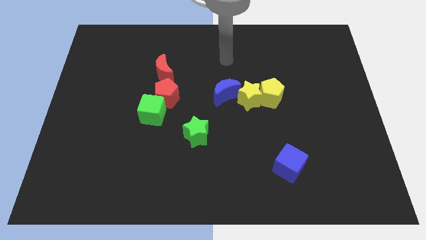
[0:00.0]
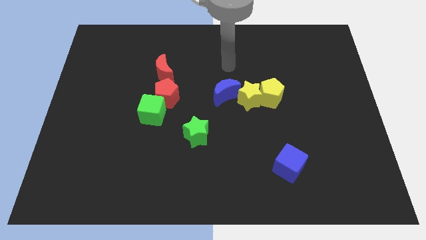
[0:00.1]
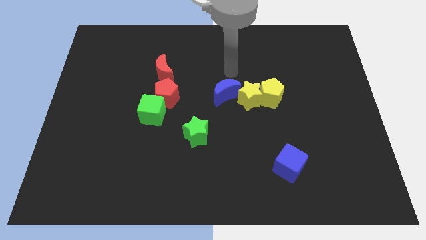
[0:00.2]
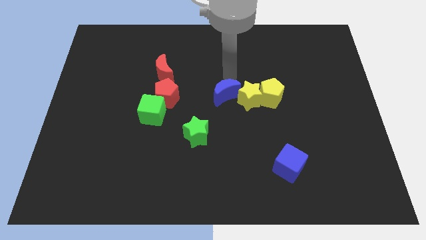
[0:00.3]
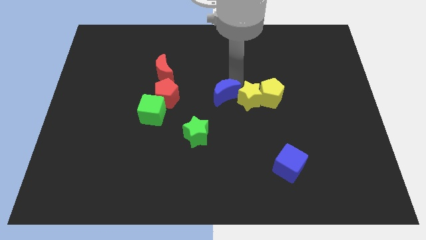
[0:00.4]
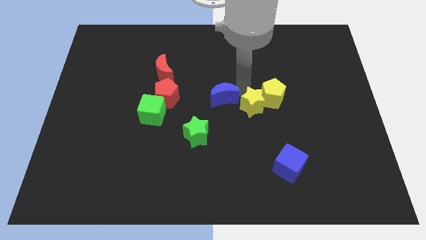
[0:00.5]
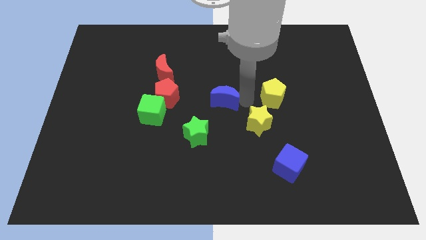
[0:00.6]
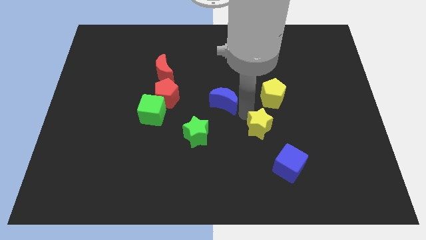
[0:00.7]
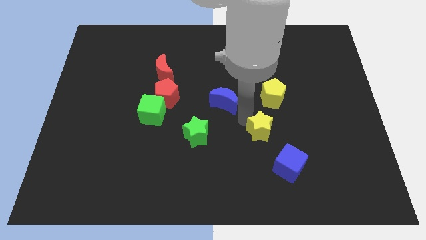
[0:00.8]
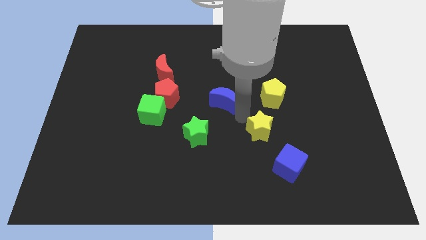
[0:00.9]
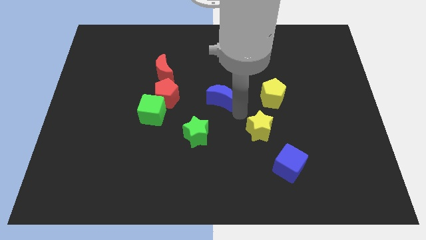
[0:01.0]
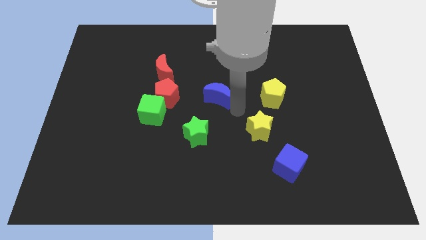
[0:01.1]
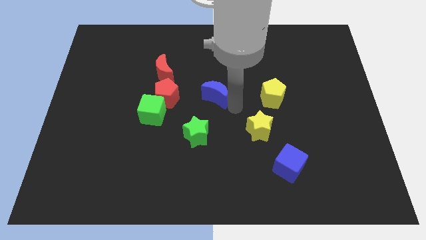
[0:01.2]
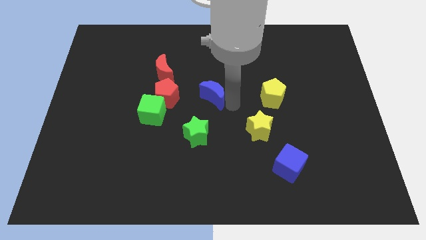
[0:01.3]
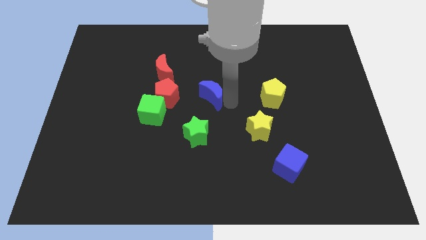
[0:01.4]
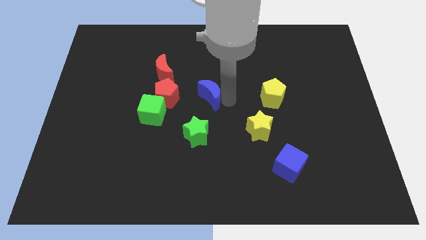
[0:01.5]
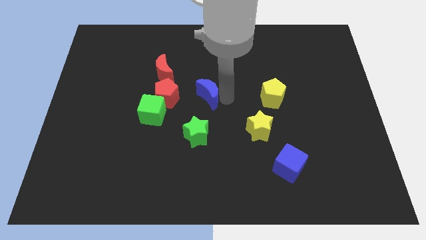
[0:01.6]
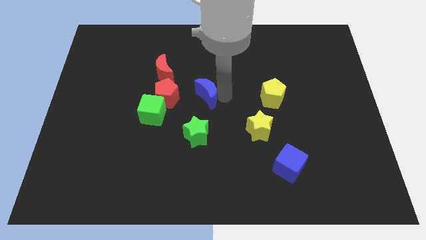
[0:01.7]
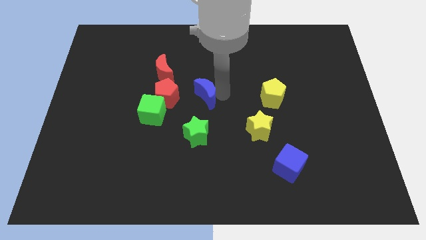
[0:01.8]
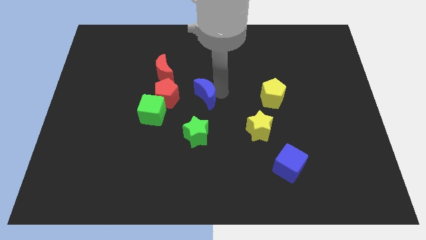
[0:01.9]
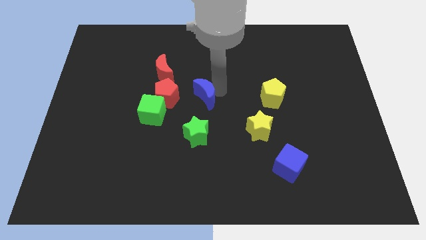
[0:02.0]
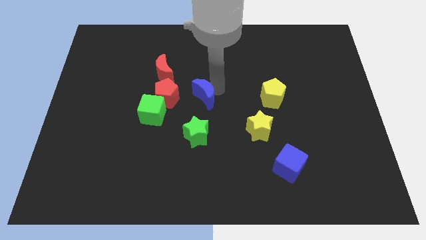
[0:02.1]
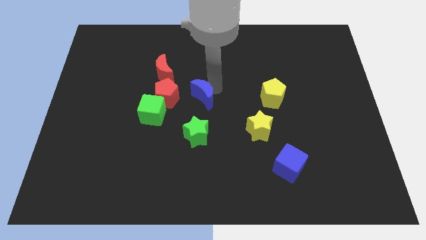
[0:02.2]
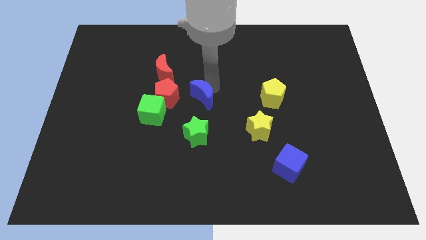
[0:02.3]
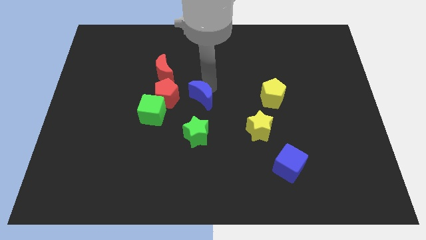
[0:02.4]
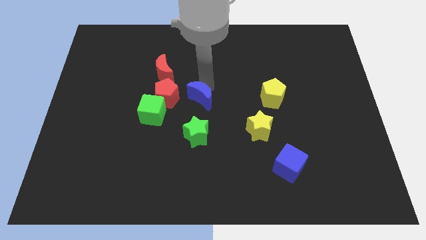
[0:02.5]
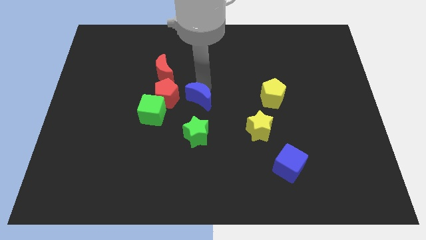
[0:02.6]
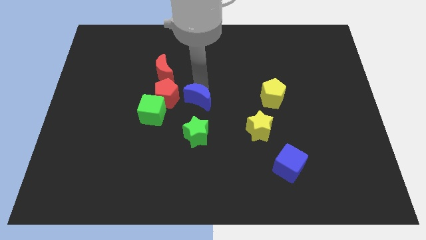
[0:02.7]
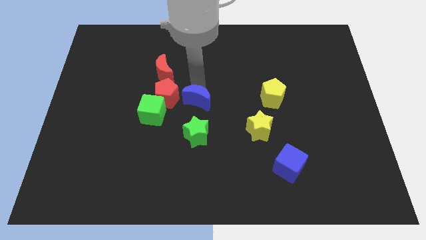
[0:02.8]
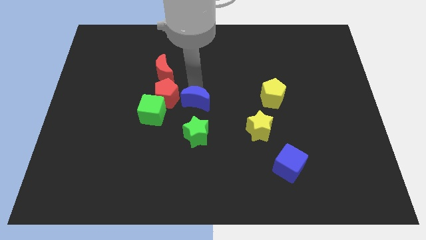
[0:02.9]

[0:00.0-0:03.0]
slightly move the blue moon to the left

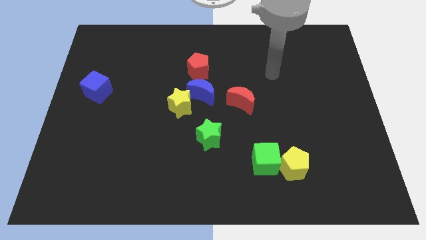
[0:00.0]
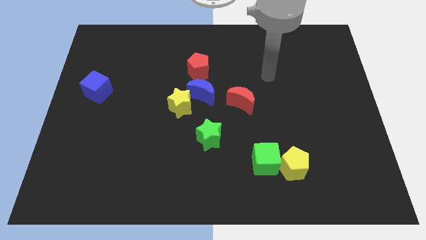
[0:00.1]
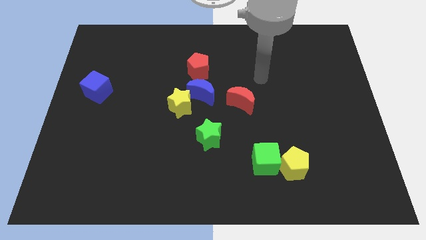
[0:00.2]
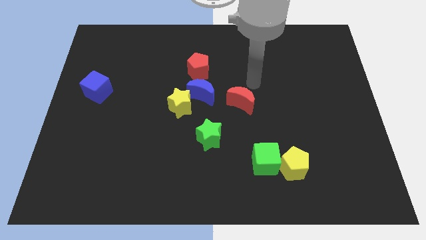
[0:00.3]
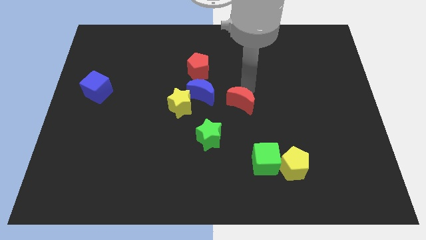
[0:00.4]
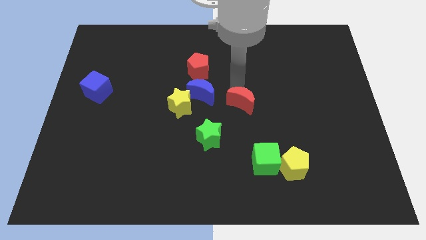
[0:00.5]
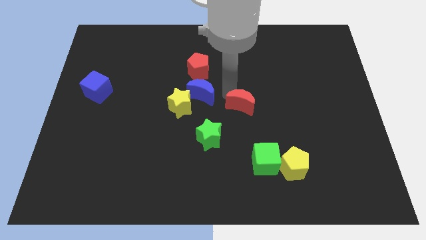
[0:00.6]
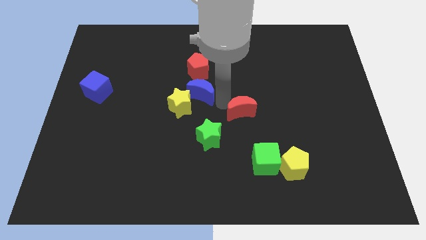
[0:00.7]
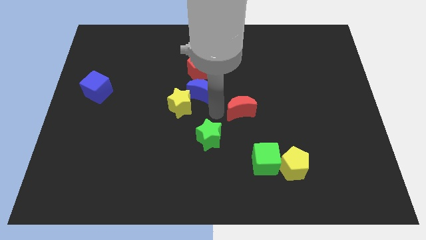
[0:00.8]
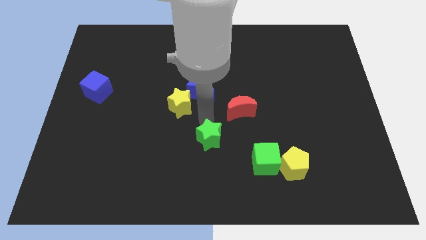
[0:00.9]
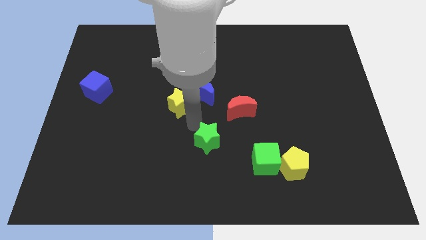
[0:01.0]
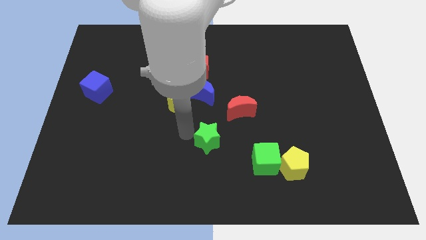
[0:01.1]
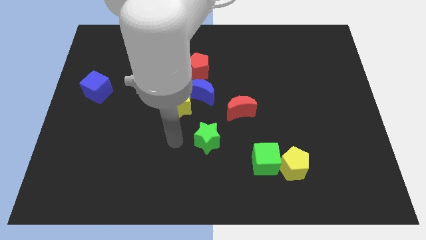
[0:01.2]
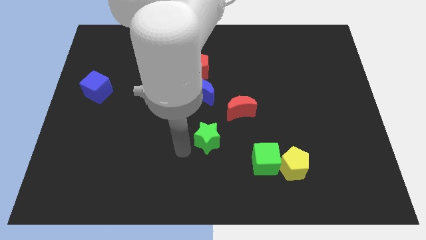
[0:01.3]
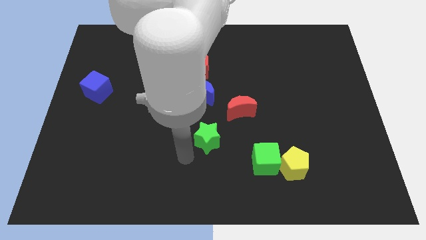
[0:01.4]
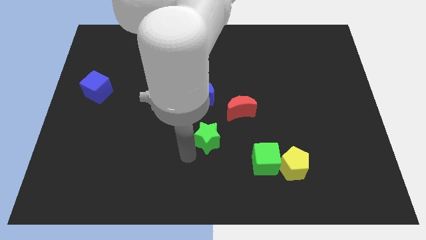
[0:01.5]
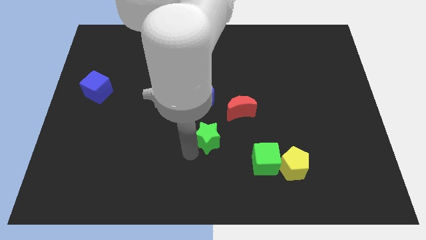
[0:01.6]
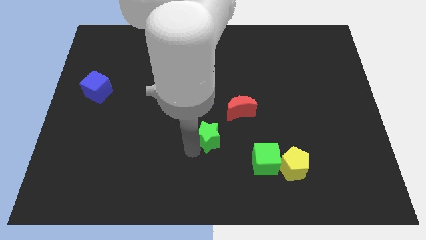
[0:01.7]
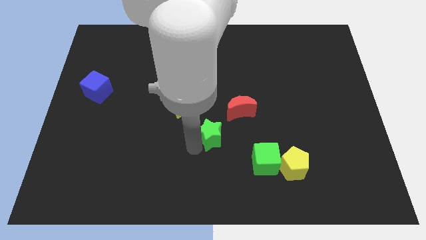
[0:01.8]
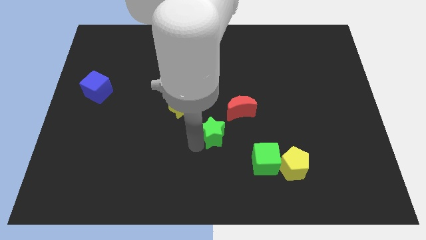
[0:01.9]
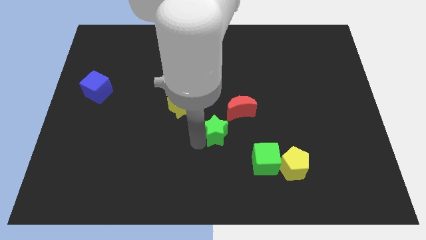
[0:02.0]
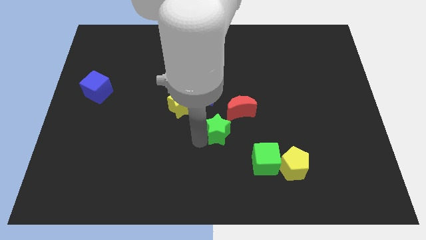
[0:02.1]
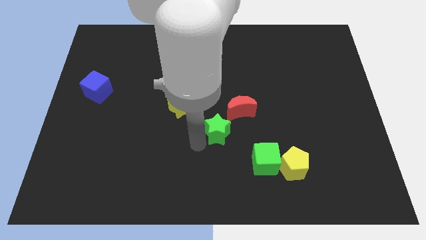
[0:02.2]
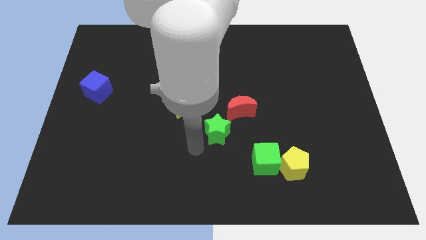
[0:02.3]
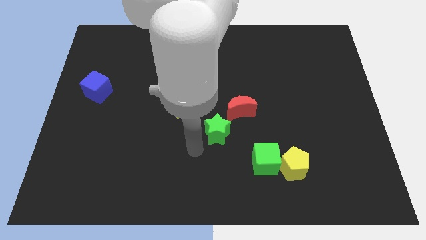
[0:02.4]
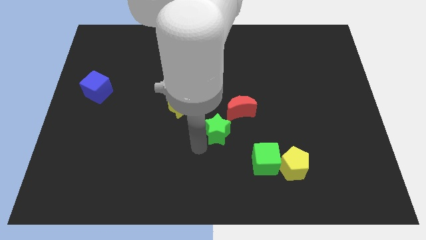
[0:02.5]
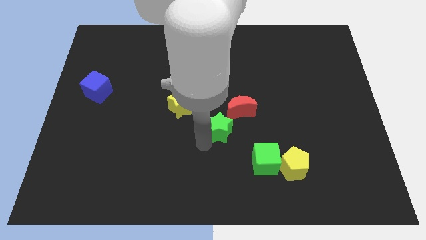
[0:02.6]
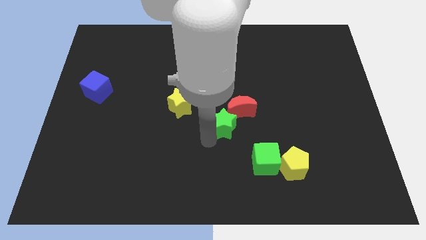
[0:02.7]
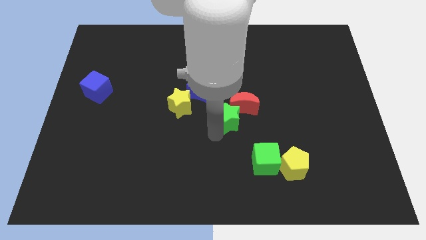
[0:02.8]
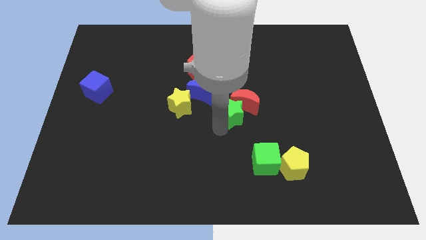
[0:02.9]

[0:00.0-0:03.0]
push the green star a little bit diagonally upwards and right

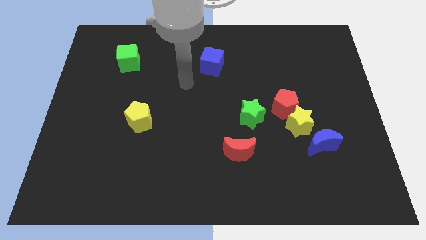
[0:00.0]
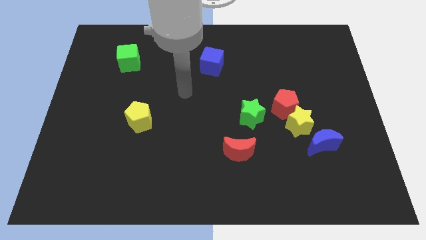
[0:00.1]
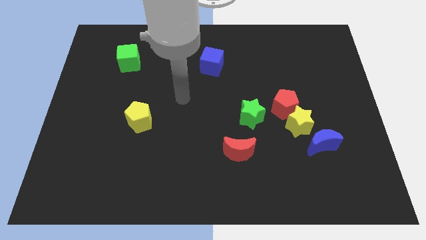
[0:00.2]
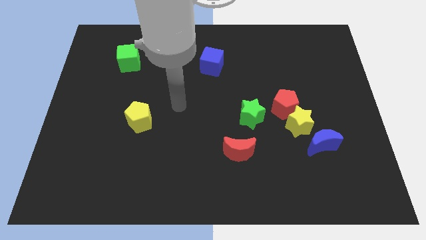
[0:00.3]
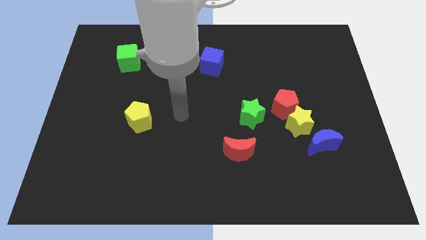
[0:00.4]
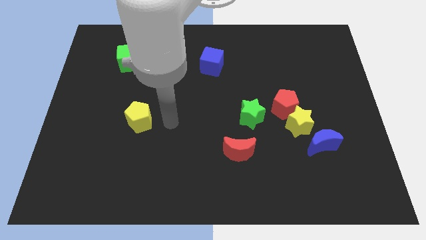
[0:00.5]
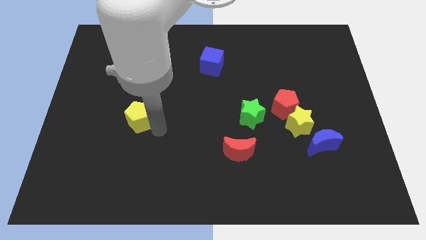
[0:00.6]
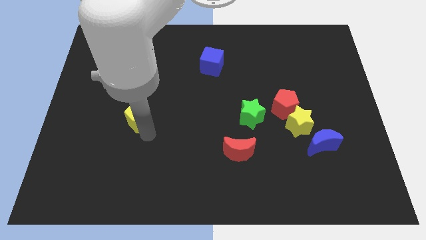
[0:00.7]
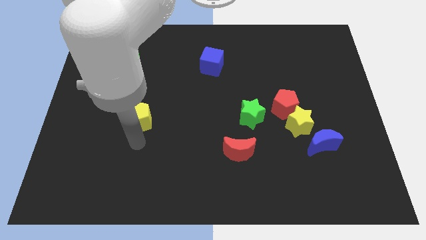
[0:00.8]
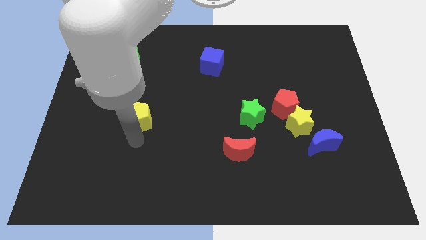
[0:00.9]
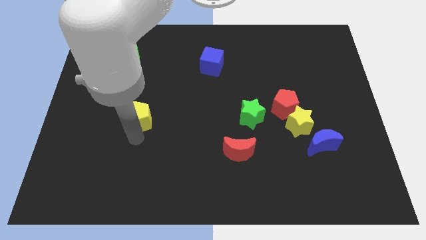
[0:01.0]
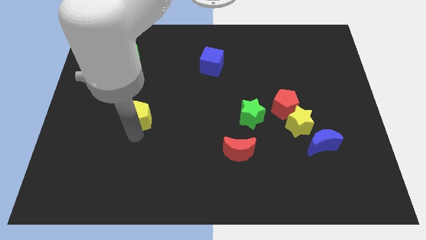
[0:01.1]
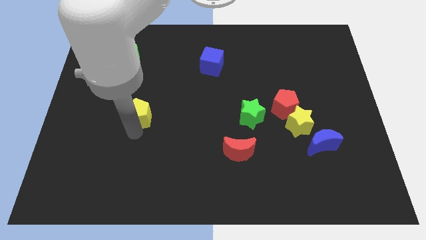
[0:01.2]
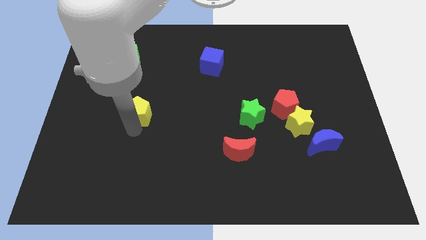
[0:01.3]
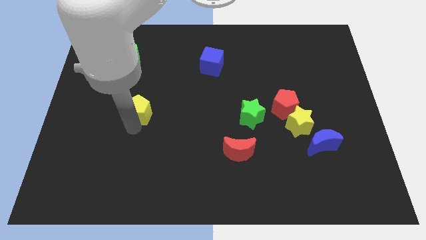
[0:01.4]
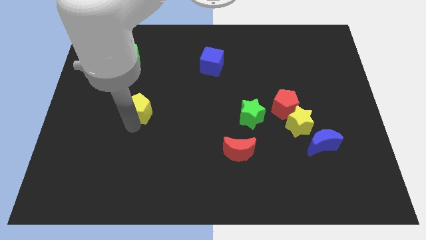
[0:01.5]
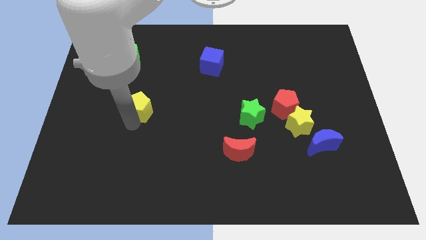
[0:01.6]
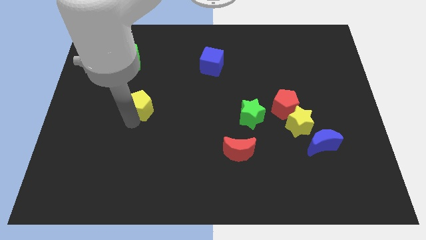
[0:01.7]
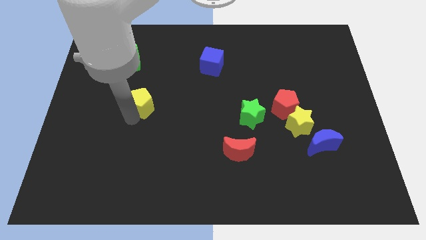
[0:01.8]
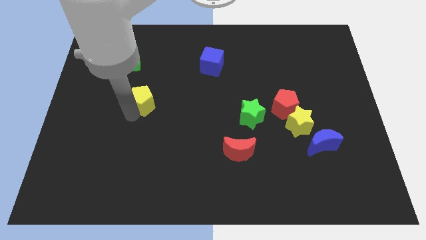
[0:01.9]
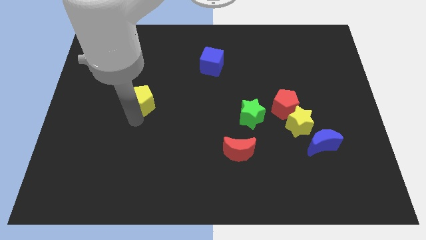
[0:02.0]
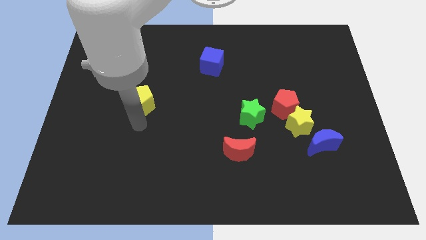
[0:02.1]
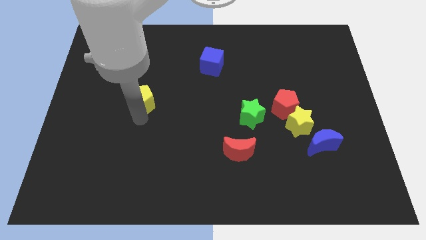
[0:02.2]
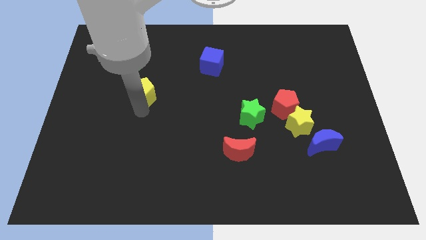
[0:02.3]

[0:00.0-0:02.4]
slightly slide the yellow pentagon up
